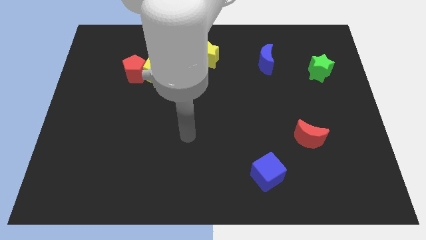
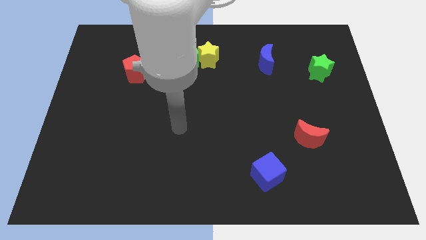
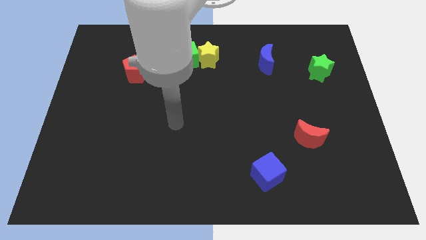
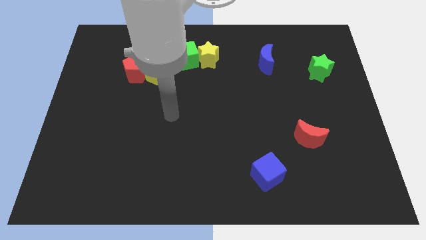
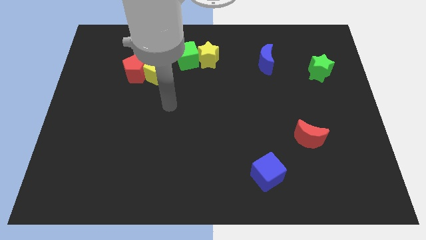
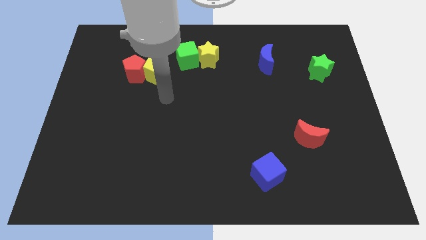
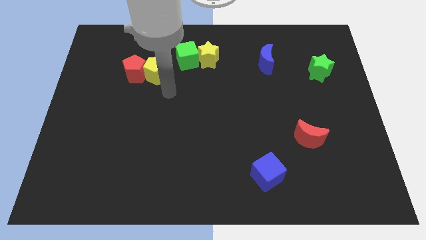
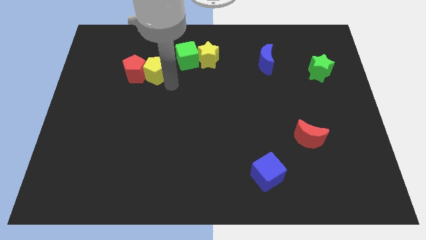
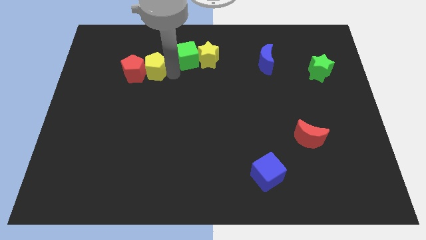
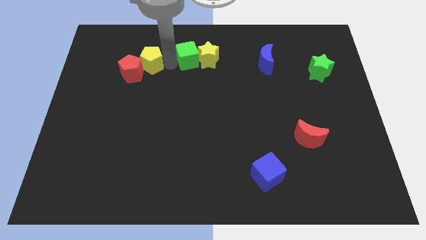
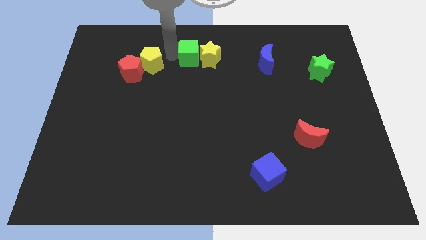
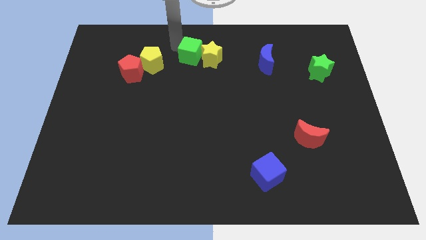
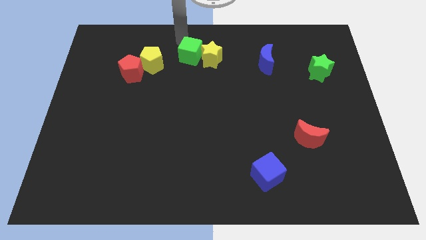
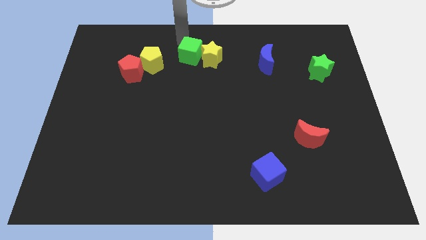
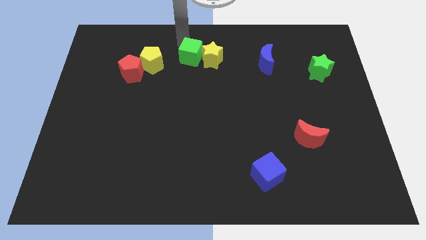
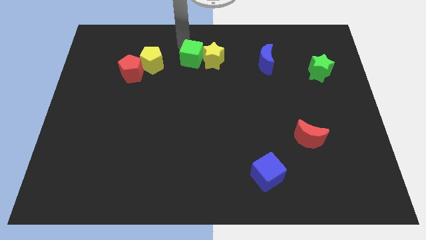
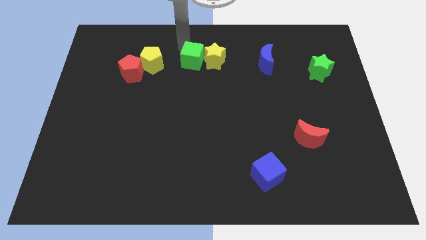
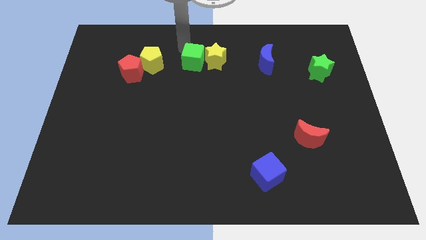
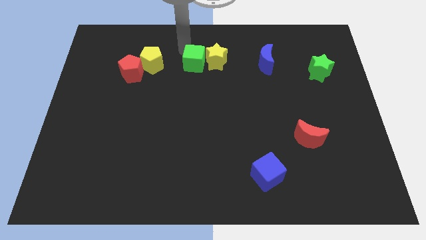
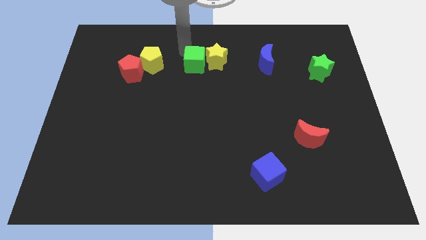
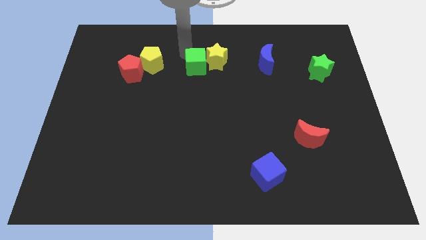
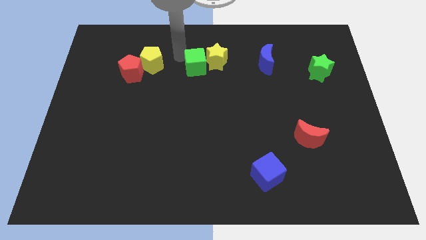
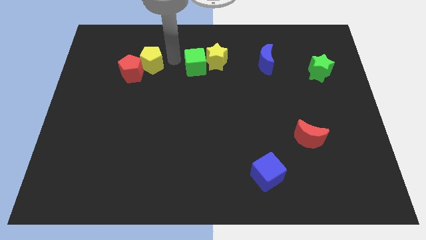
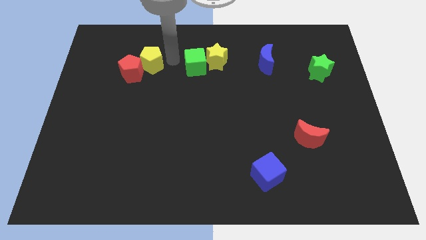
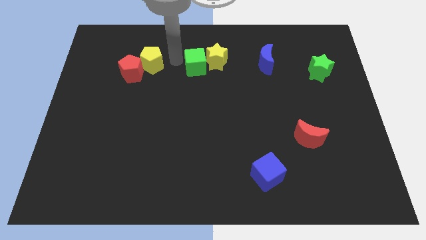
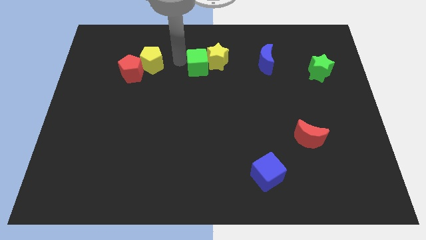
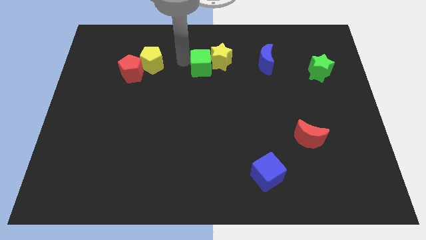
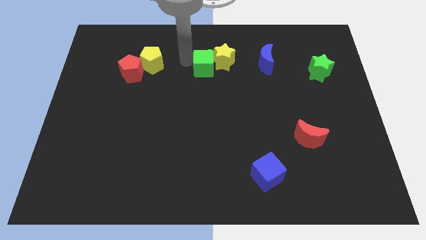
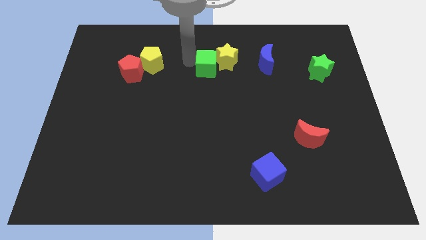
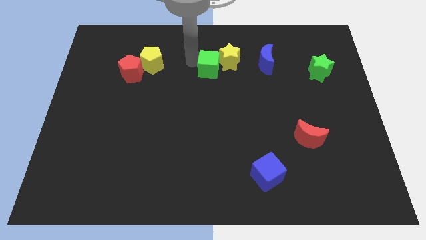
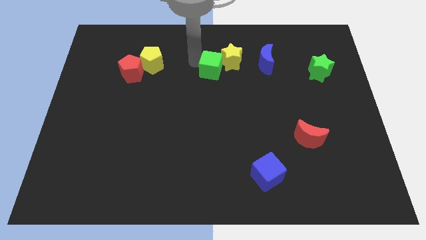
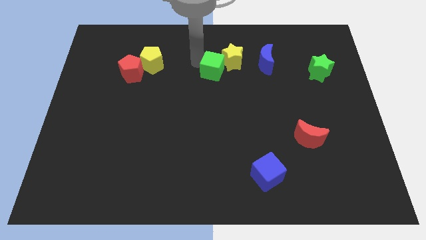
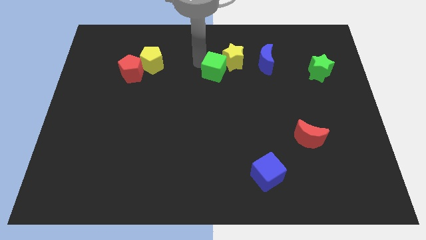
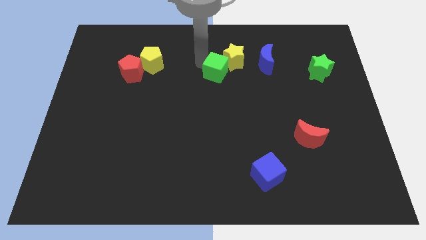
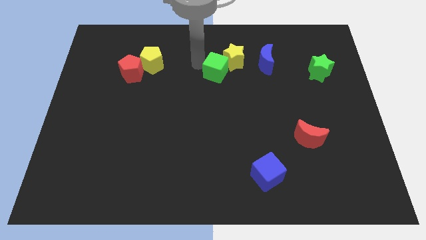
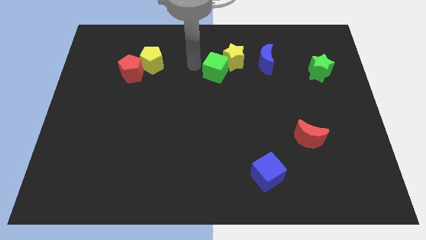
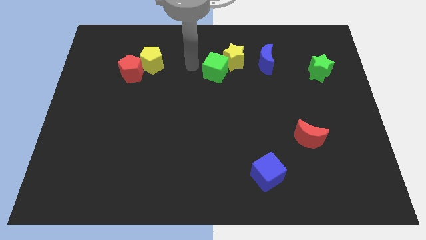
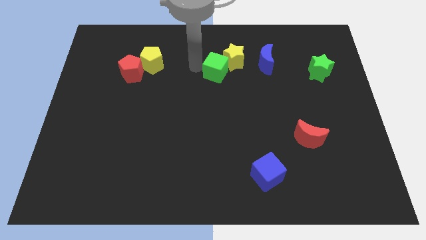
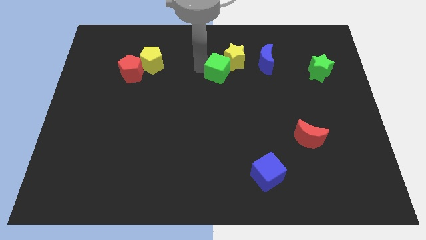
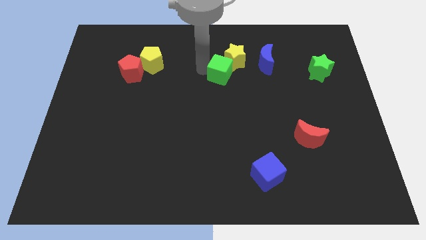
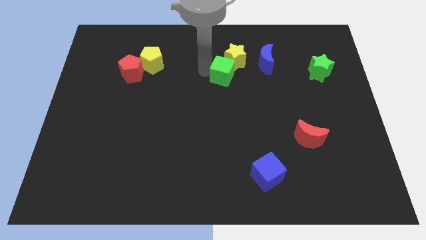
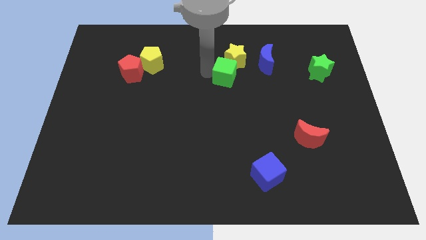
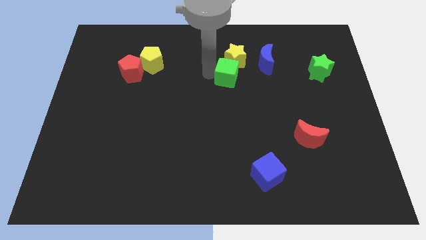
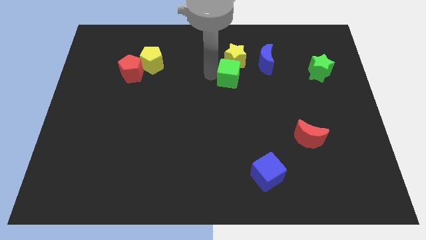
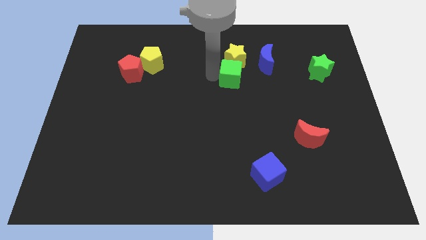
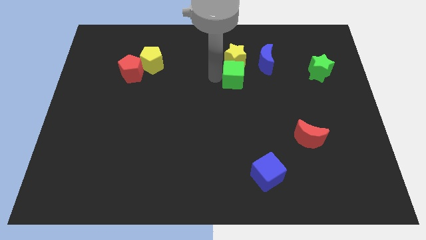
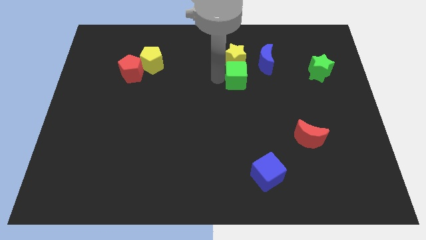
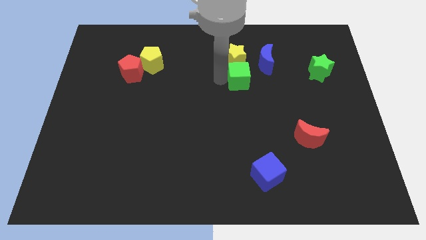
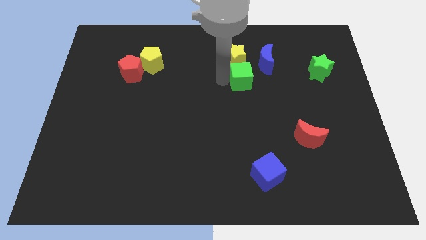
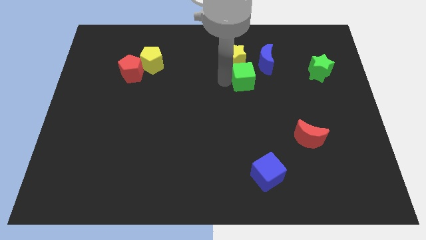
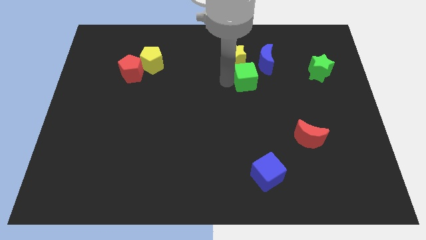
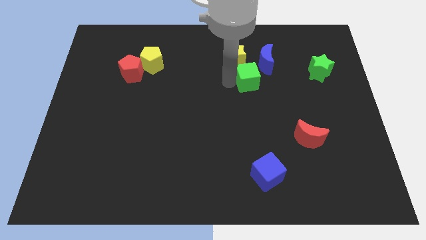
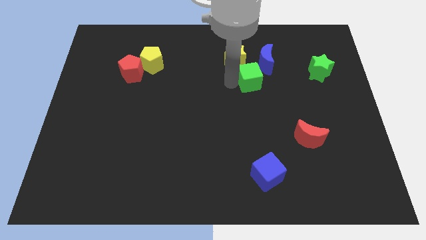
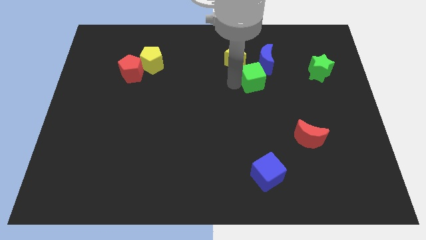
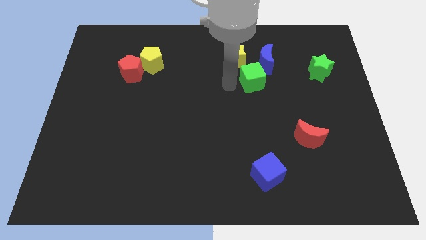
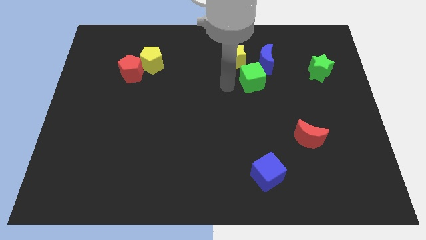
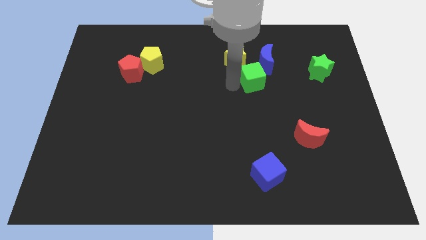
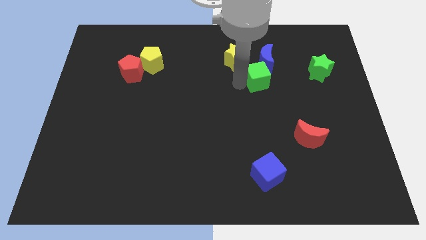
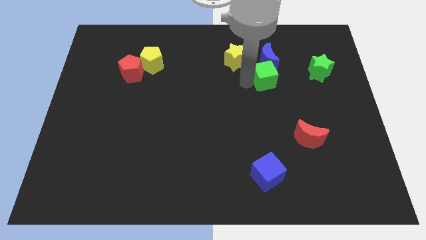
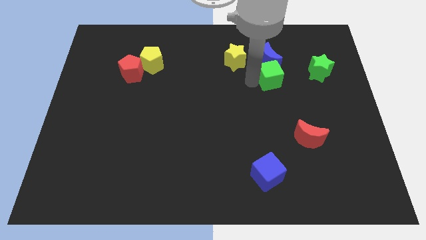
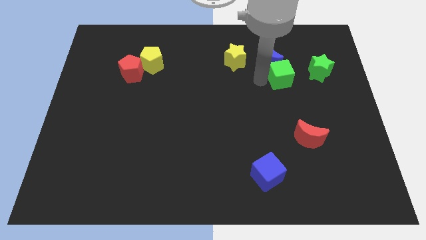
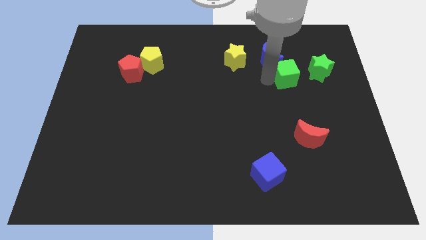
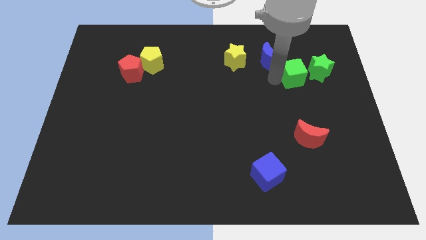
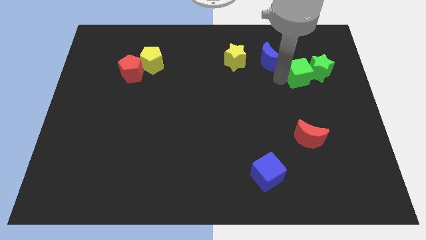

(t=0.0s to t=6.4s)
put the green cube next to the green star
